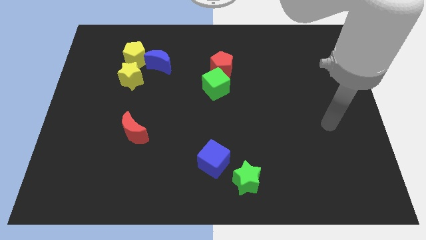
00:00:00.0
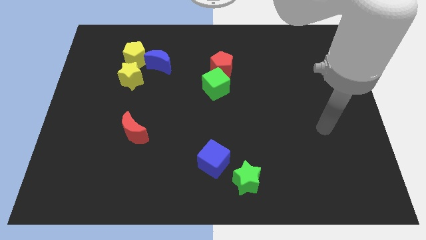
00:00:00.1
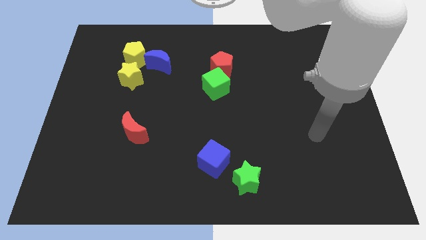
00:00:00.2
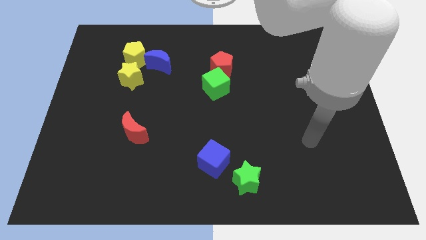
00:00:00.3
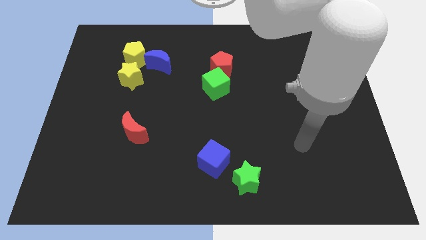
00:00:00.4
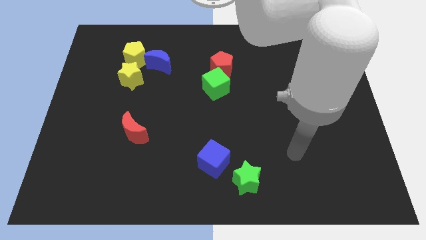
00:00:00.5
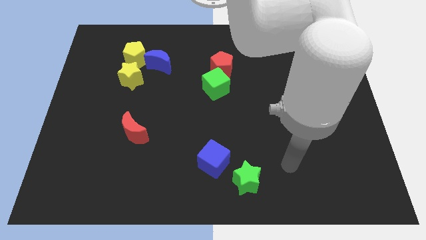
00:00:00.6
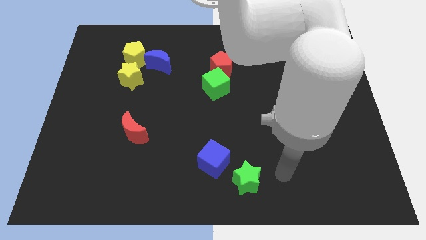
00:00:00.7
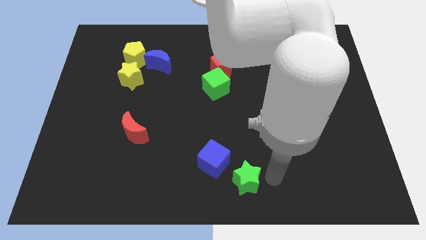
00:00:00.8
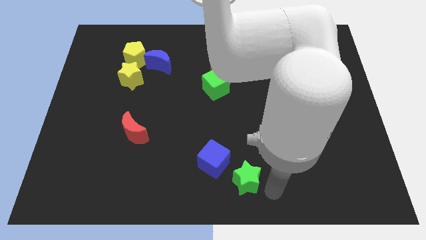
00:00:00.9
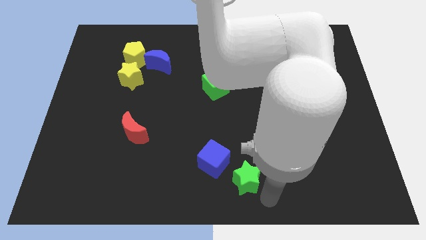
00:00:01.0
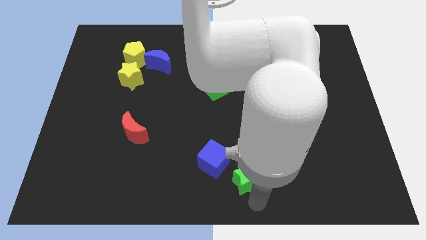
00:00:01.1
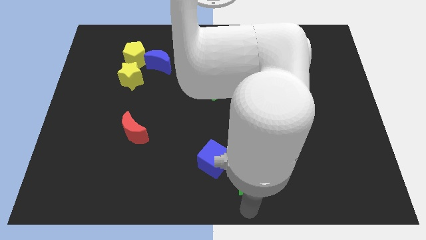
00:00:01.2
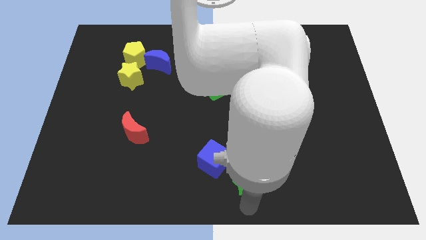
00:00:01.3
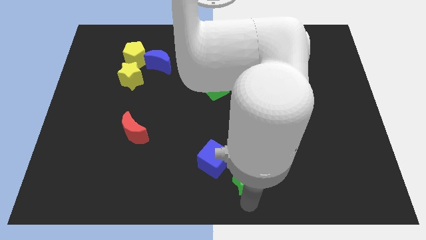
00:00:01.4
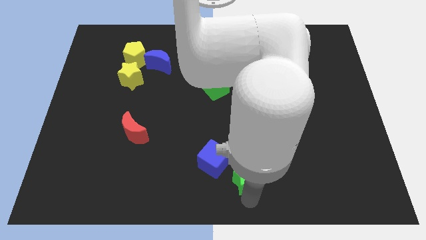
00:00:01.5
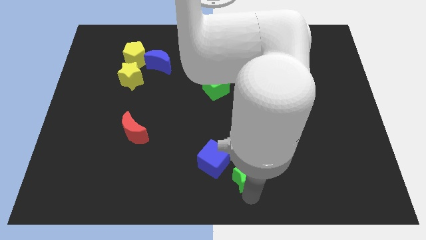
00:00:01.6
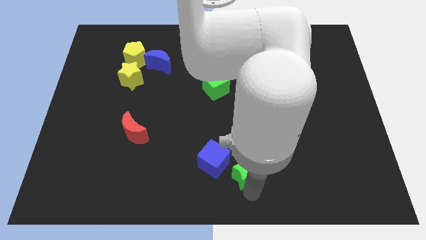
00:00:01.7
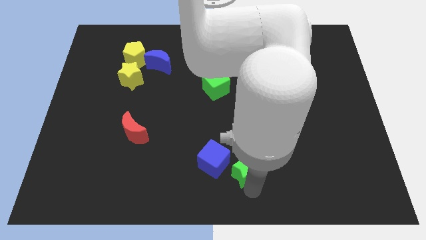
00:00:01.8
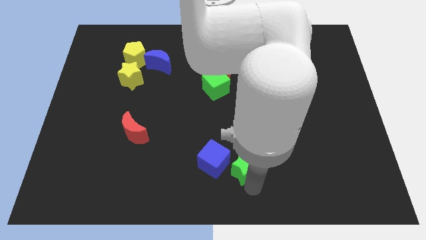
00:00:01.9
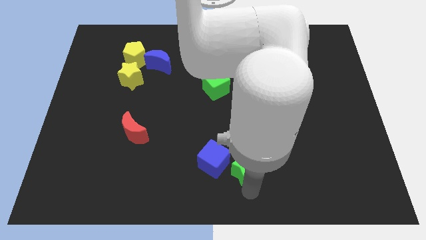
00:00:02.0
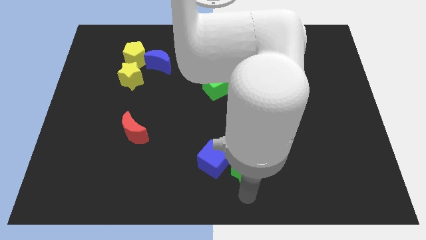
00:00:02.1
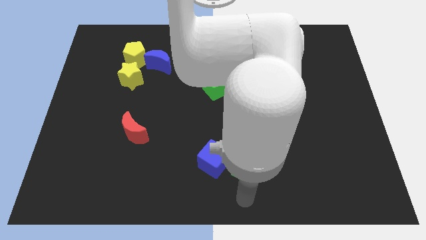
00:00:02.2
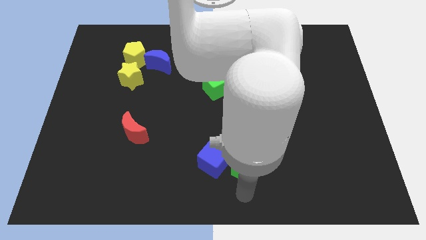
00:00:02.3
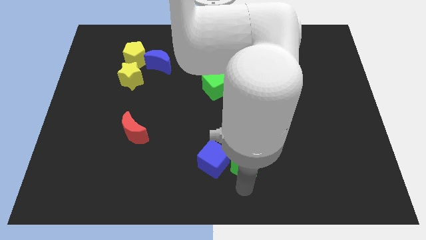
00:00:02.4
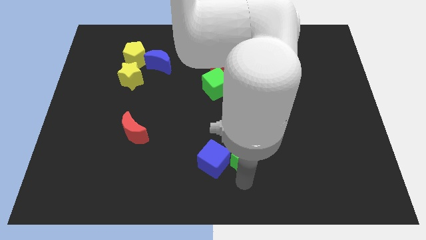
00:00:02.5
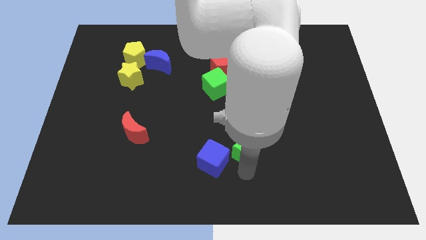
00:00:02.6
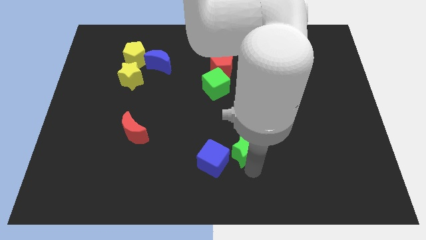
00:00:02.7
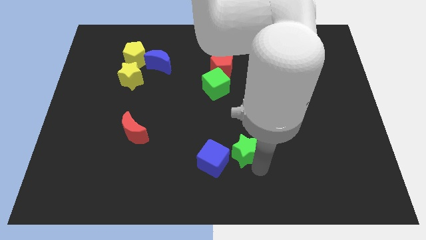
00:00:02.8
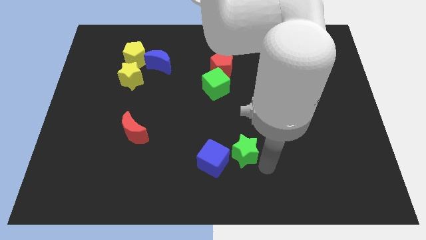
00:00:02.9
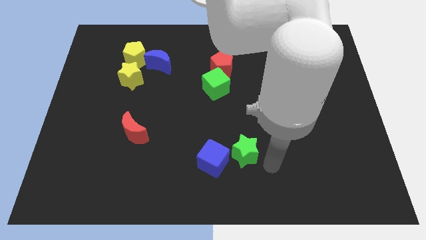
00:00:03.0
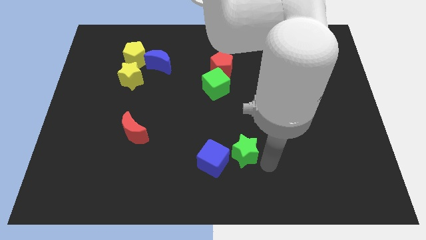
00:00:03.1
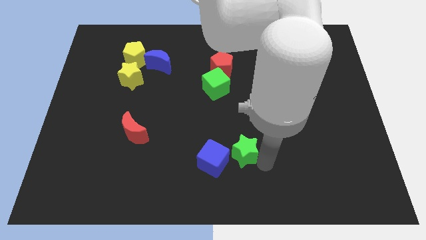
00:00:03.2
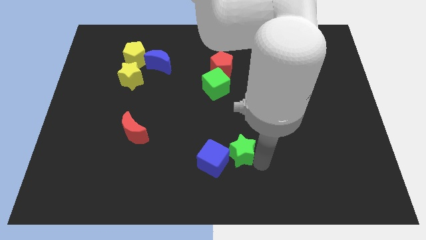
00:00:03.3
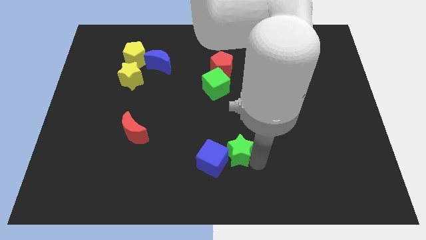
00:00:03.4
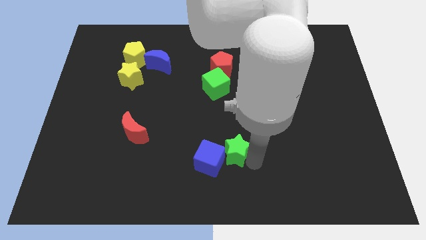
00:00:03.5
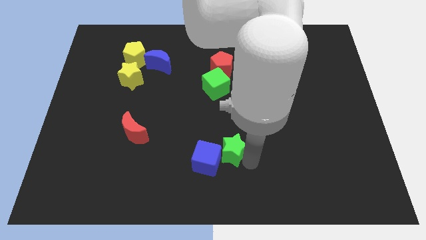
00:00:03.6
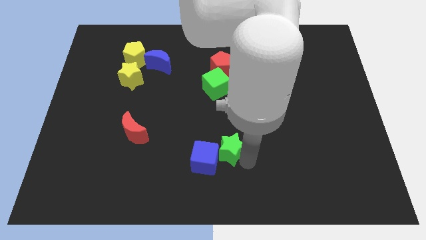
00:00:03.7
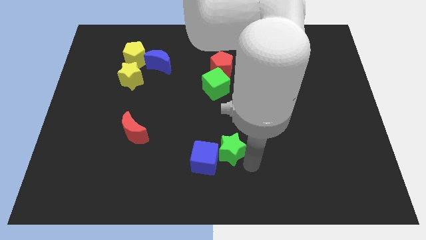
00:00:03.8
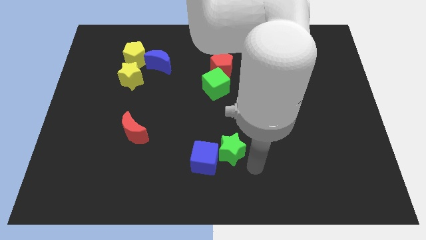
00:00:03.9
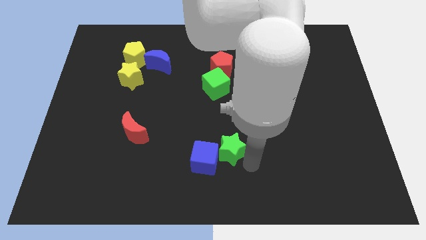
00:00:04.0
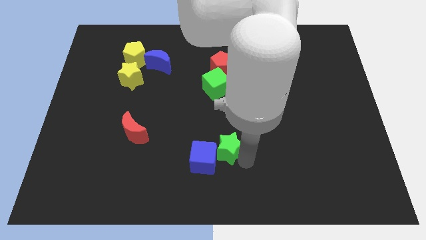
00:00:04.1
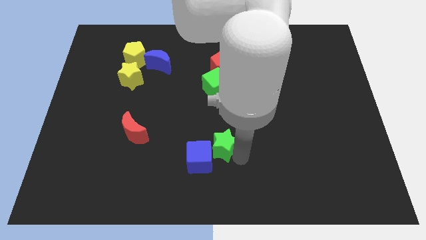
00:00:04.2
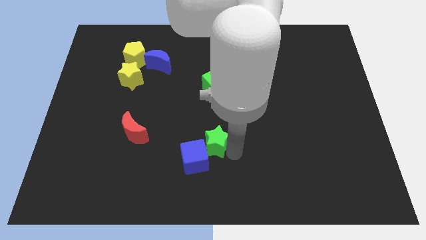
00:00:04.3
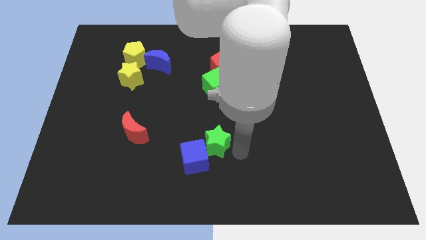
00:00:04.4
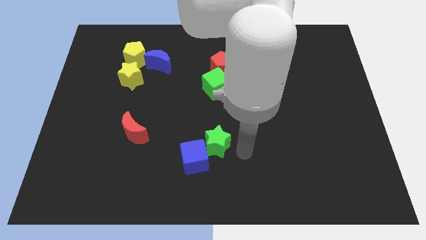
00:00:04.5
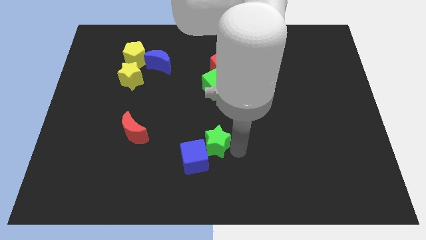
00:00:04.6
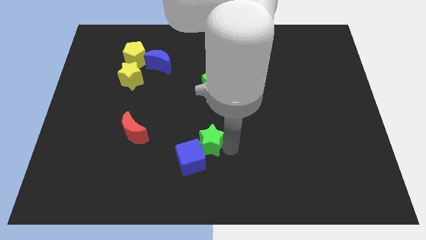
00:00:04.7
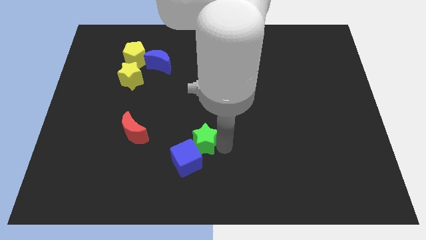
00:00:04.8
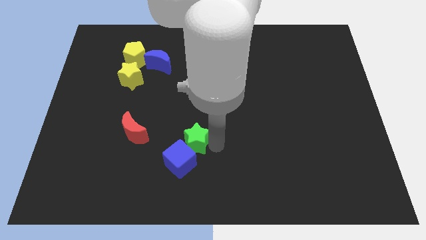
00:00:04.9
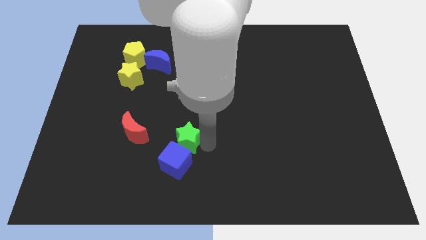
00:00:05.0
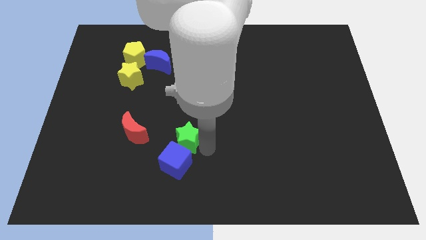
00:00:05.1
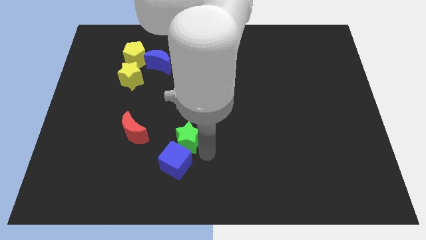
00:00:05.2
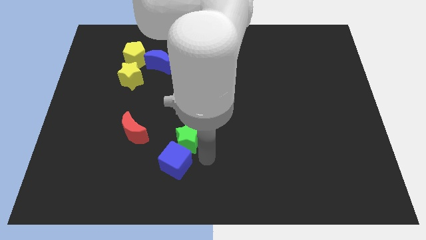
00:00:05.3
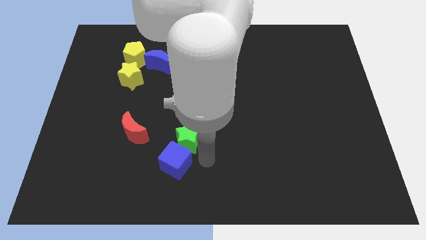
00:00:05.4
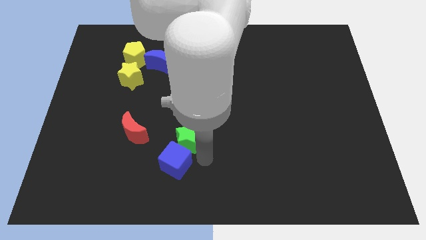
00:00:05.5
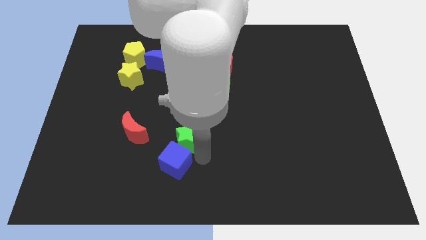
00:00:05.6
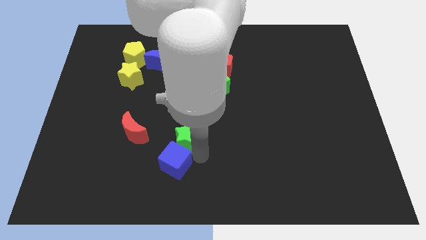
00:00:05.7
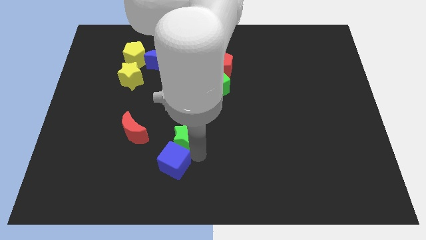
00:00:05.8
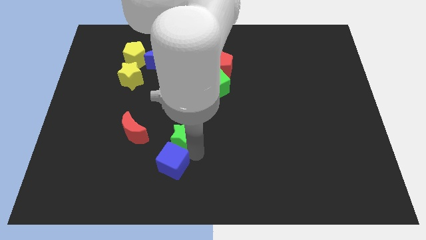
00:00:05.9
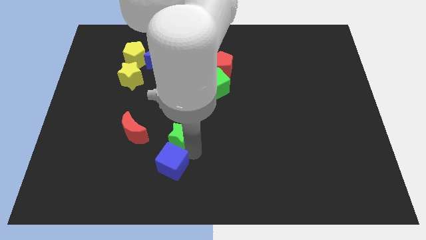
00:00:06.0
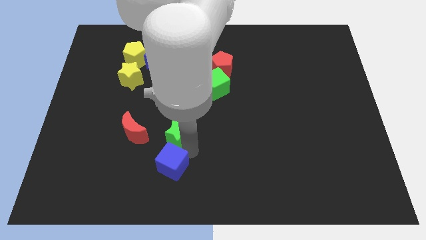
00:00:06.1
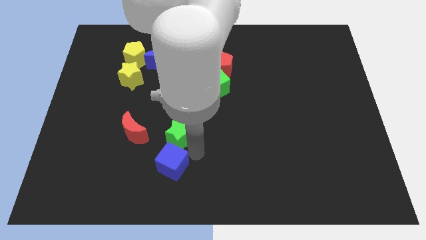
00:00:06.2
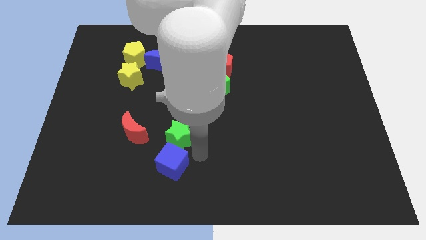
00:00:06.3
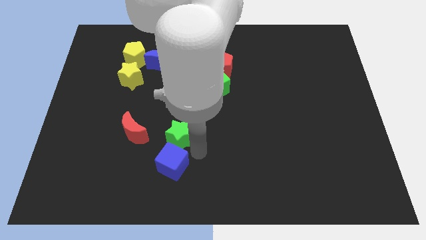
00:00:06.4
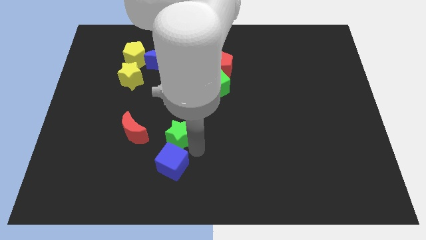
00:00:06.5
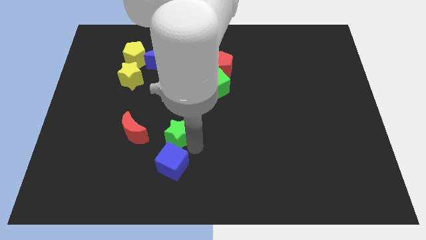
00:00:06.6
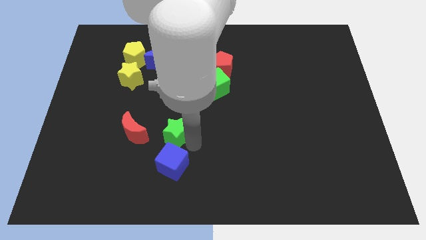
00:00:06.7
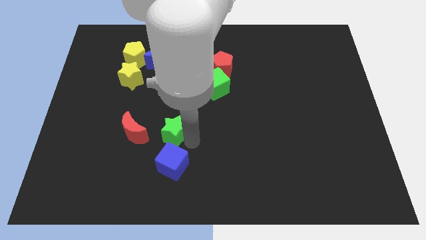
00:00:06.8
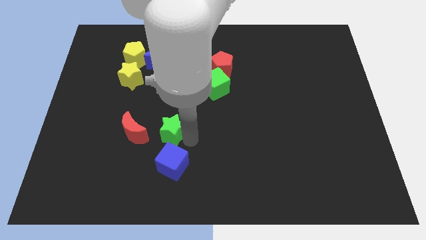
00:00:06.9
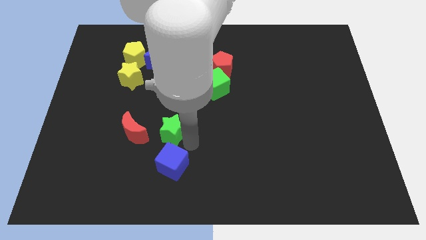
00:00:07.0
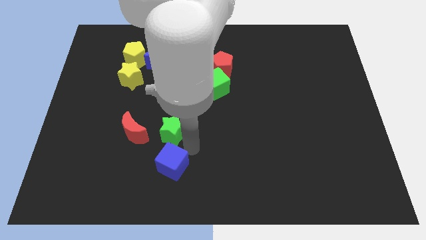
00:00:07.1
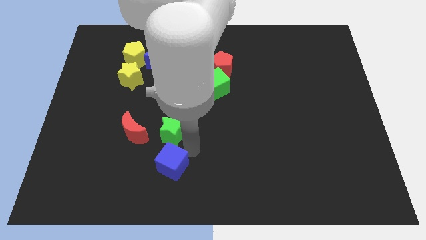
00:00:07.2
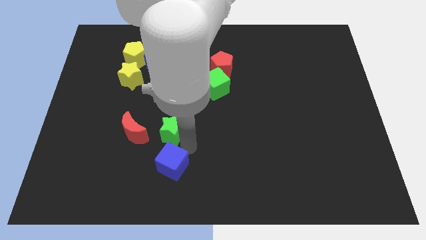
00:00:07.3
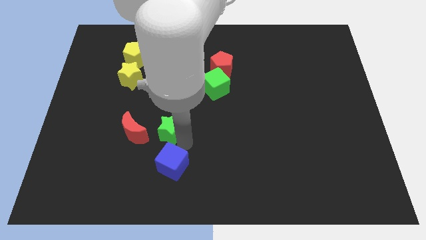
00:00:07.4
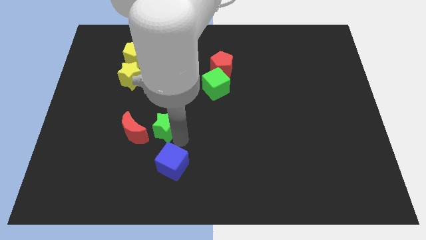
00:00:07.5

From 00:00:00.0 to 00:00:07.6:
slide the green star upwards and left

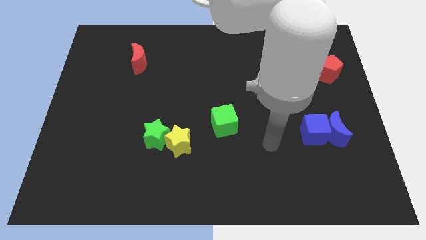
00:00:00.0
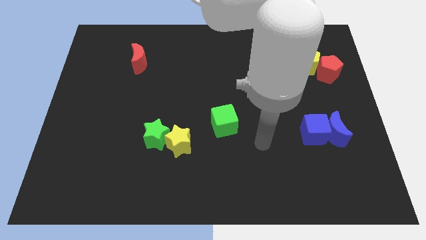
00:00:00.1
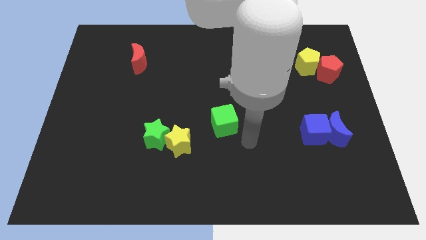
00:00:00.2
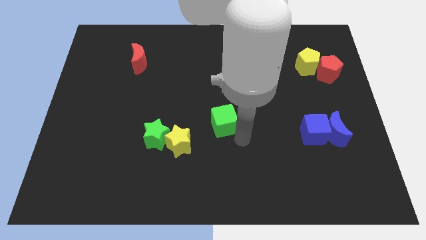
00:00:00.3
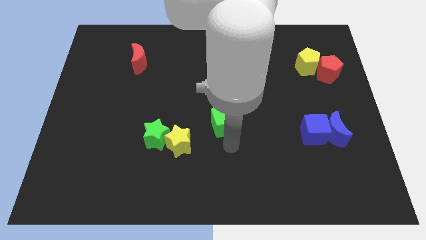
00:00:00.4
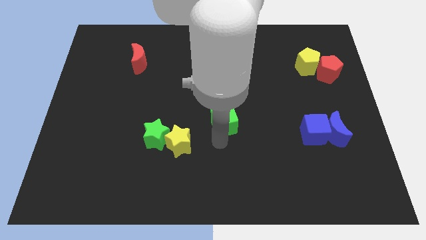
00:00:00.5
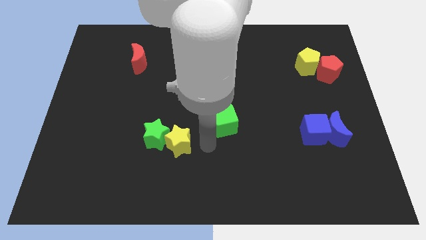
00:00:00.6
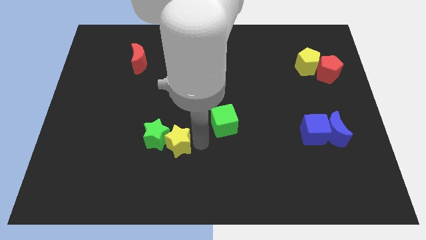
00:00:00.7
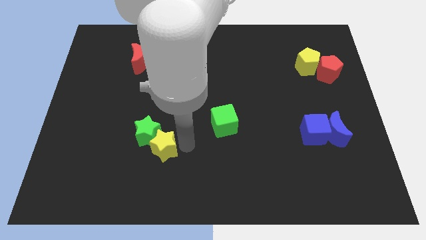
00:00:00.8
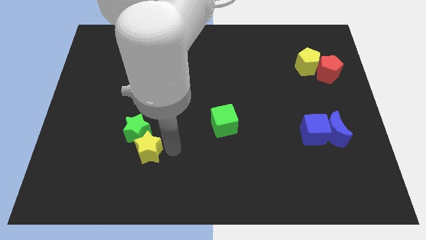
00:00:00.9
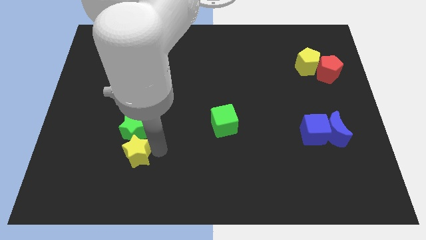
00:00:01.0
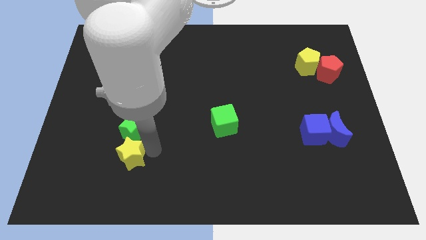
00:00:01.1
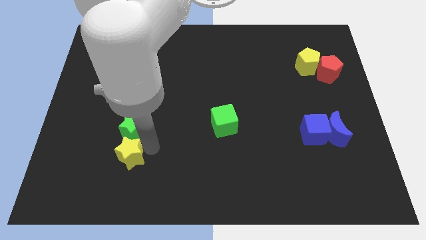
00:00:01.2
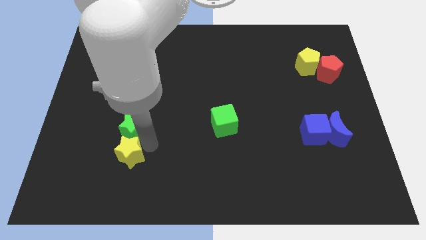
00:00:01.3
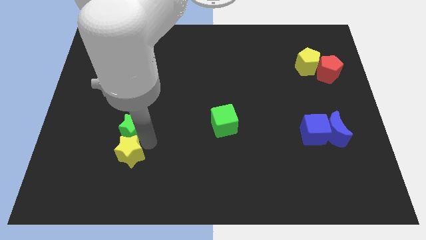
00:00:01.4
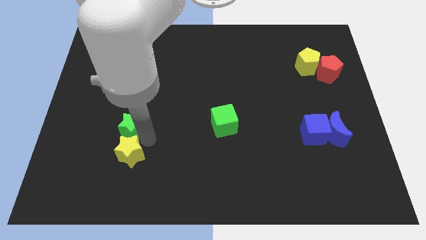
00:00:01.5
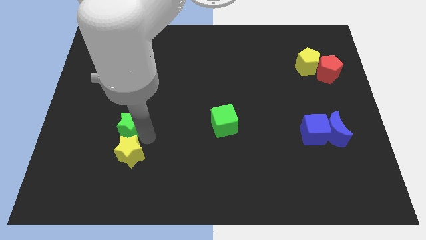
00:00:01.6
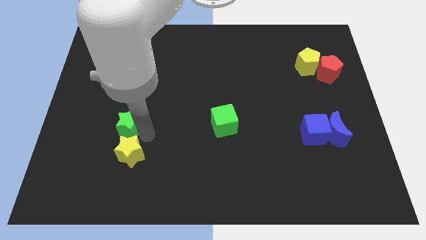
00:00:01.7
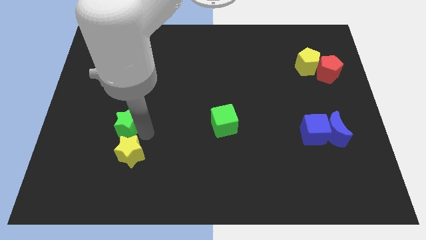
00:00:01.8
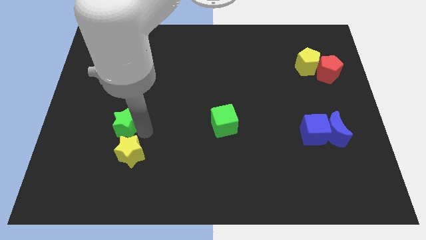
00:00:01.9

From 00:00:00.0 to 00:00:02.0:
move the green star a bit upwards and then left
